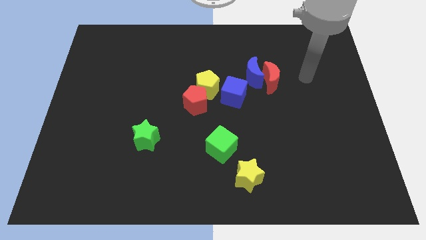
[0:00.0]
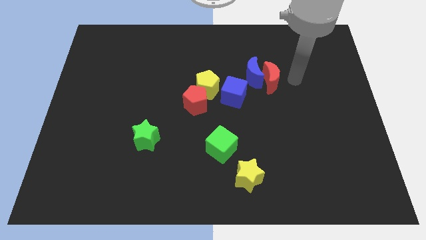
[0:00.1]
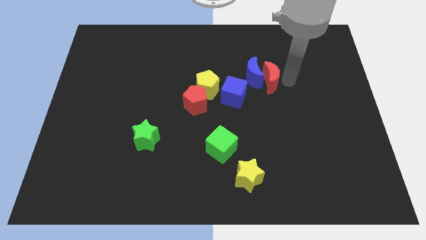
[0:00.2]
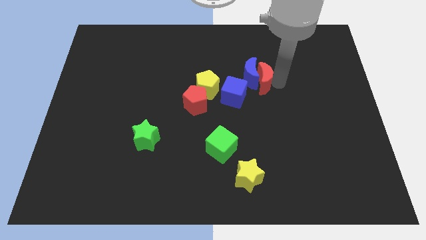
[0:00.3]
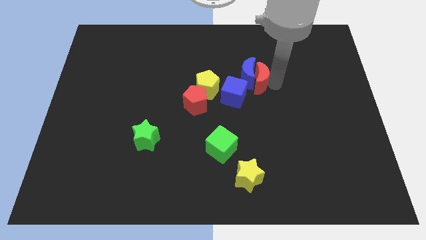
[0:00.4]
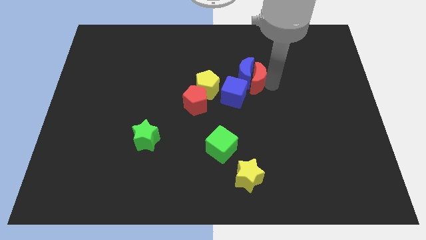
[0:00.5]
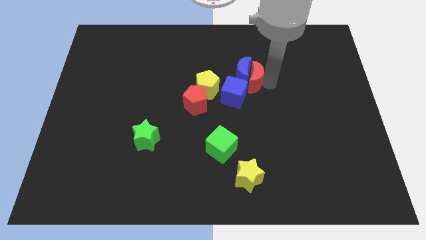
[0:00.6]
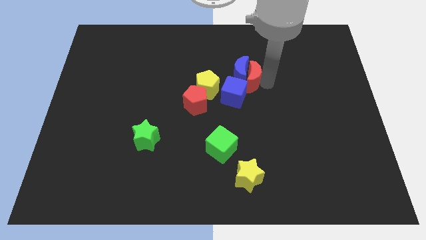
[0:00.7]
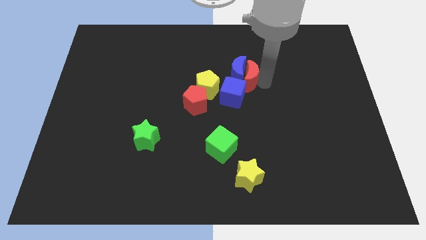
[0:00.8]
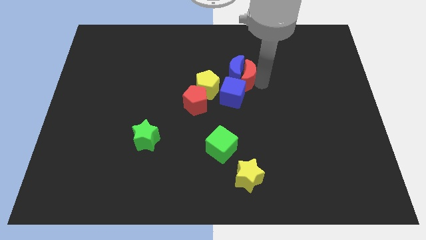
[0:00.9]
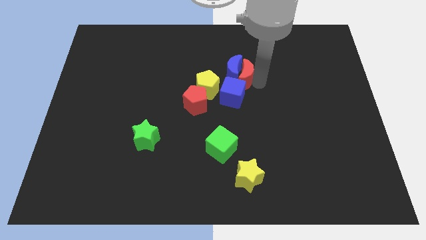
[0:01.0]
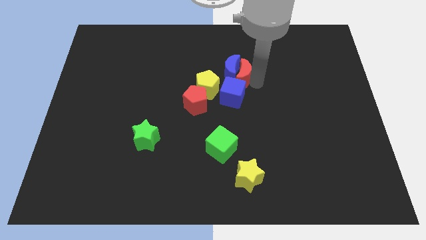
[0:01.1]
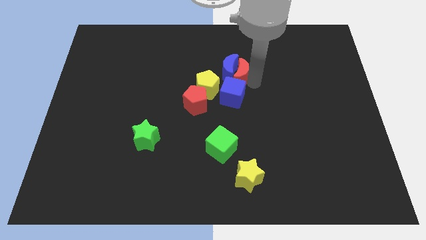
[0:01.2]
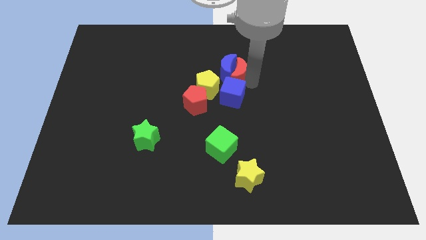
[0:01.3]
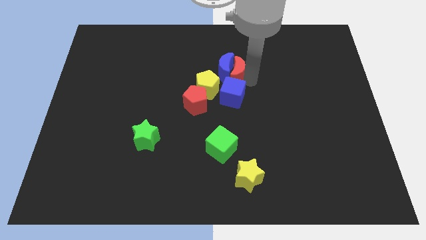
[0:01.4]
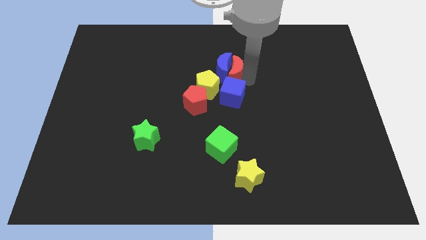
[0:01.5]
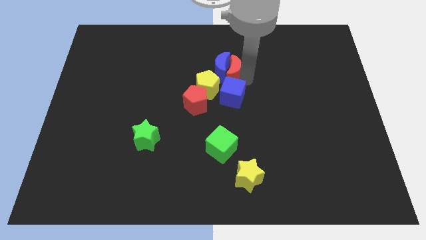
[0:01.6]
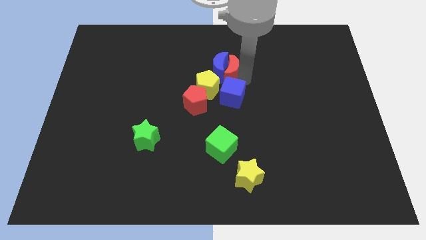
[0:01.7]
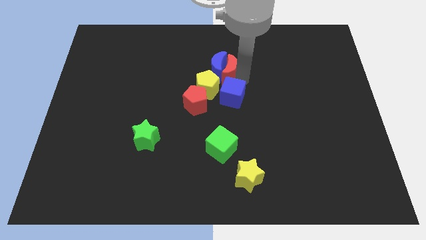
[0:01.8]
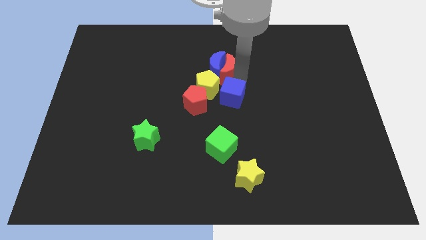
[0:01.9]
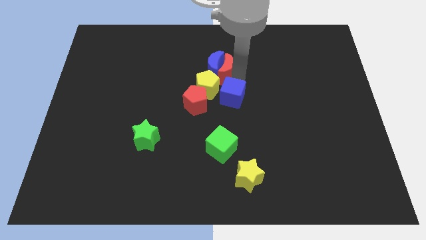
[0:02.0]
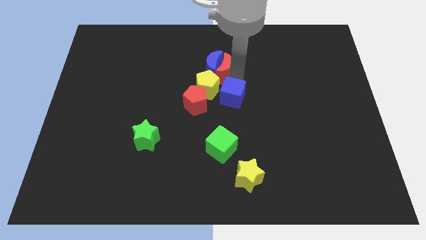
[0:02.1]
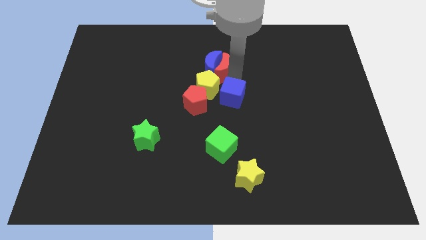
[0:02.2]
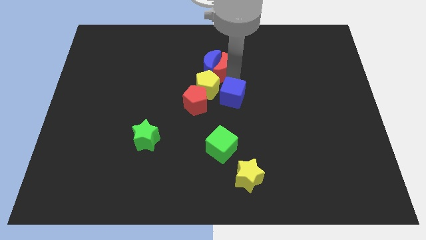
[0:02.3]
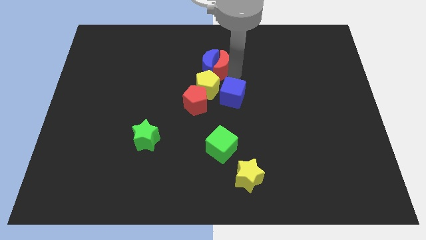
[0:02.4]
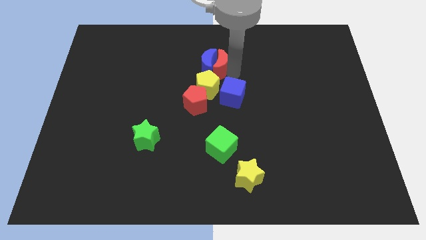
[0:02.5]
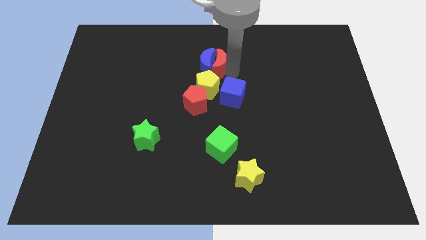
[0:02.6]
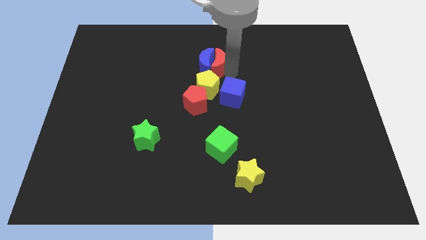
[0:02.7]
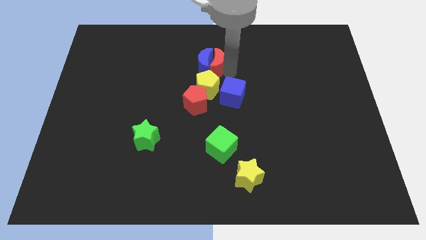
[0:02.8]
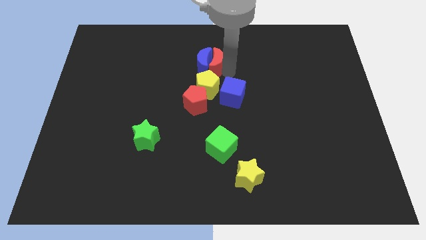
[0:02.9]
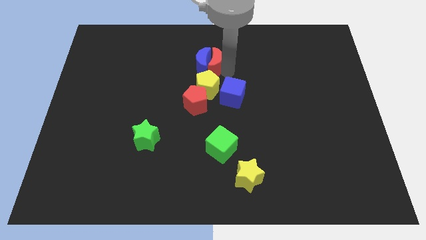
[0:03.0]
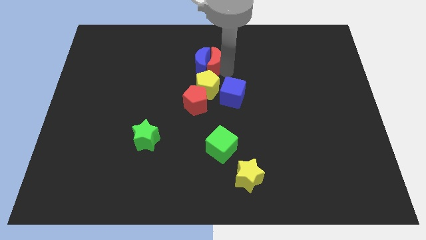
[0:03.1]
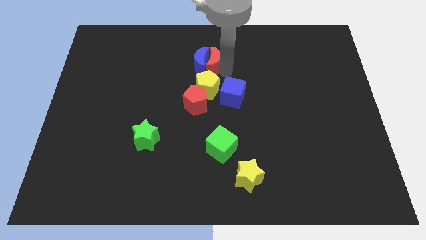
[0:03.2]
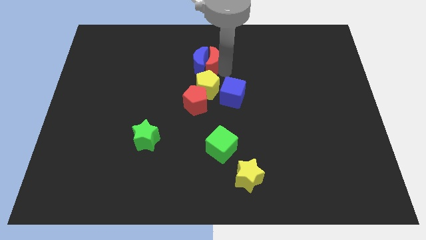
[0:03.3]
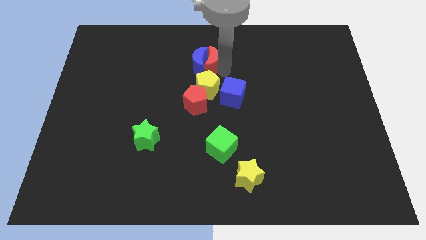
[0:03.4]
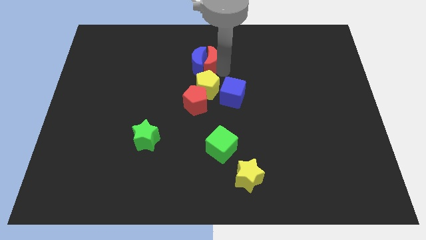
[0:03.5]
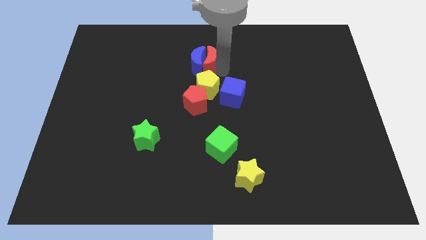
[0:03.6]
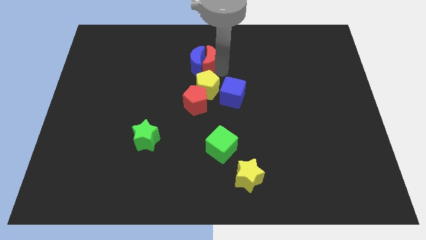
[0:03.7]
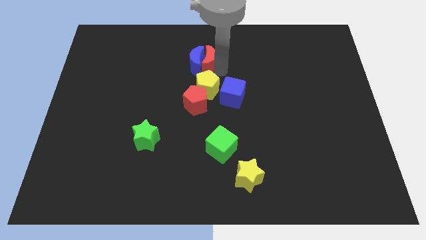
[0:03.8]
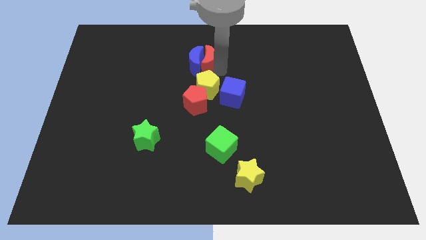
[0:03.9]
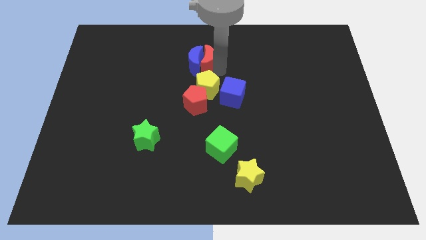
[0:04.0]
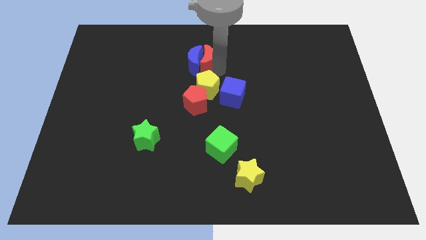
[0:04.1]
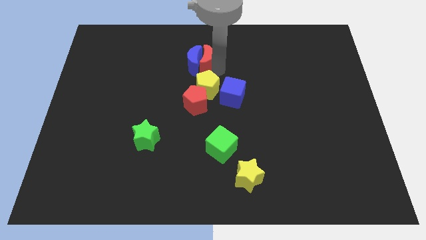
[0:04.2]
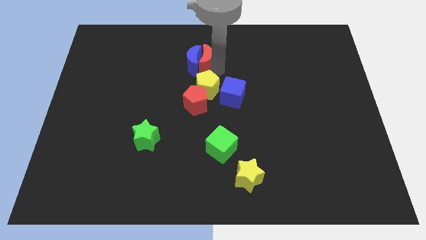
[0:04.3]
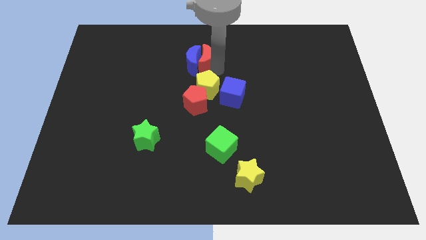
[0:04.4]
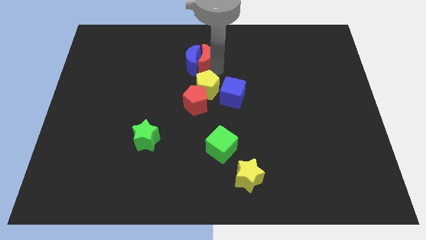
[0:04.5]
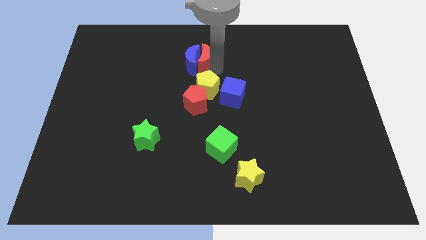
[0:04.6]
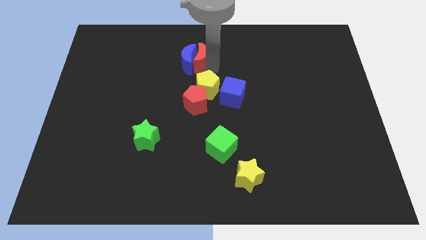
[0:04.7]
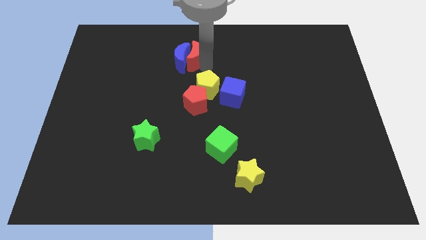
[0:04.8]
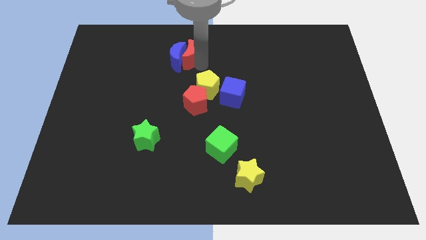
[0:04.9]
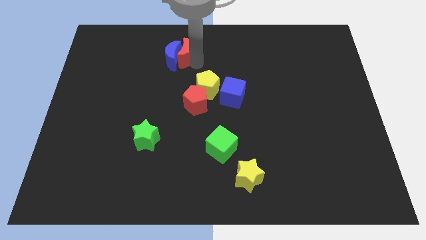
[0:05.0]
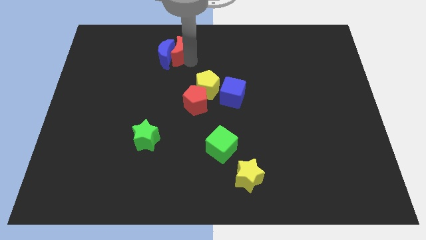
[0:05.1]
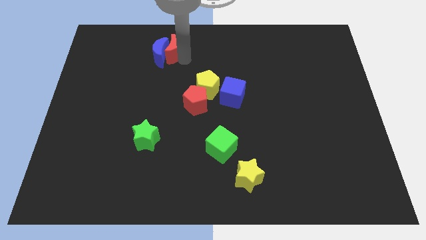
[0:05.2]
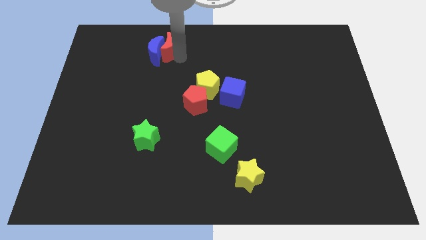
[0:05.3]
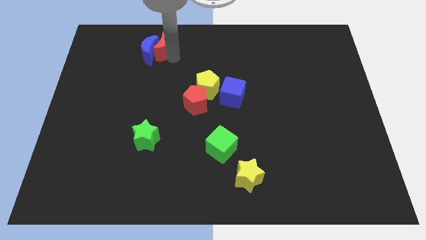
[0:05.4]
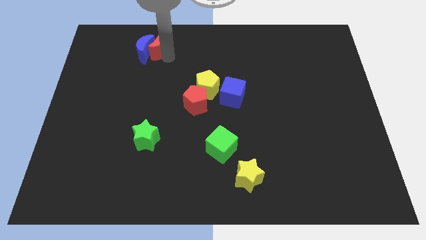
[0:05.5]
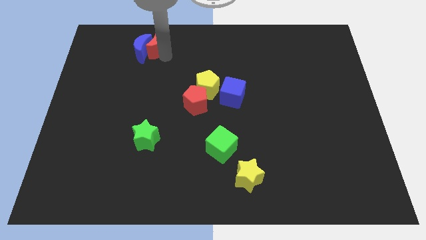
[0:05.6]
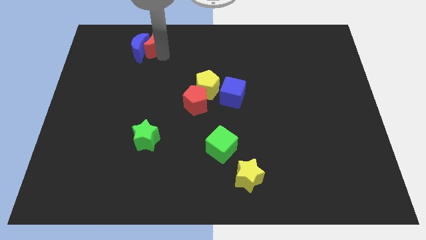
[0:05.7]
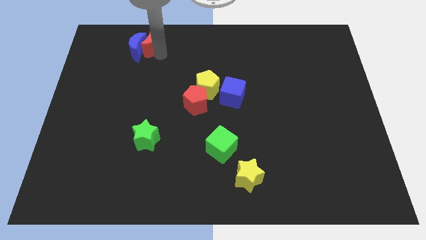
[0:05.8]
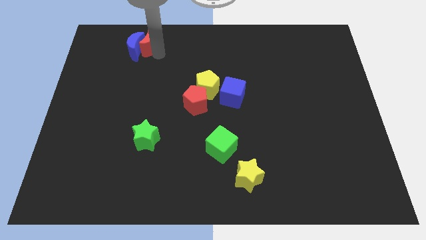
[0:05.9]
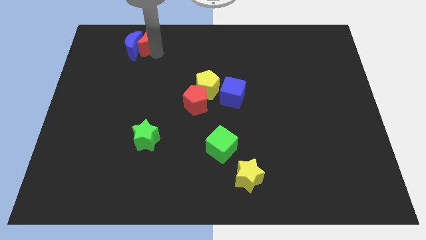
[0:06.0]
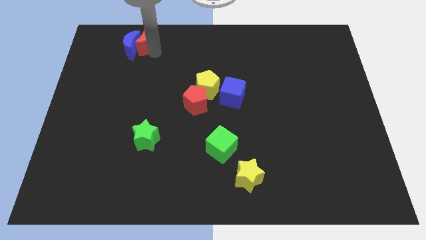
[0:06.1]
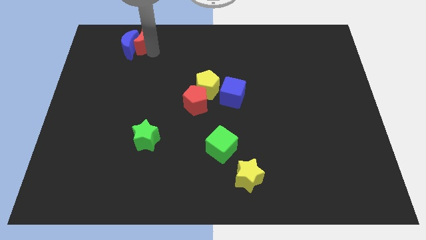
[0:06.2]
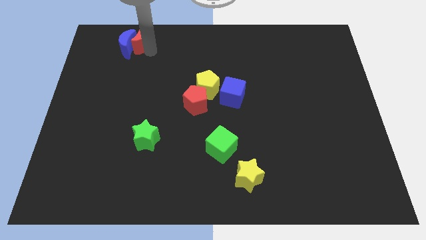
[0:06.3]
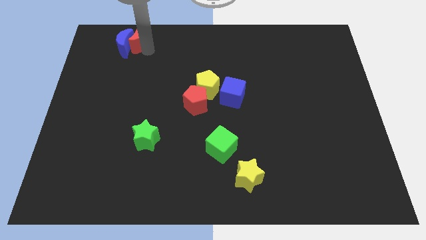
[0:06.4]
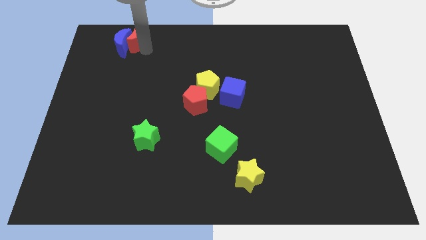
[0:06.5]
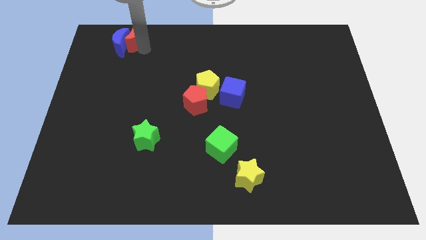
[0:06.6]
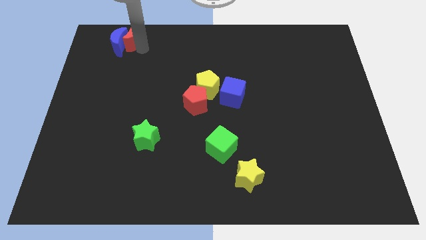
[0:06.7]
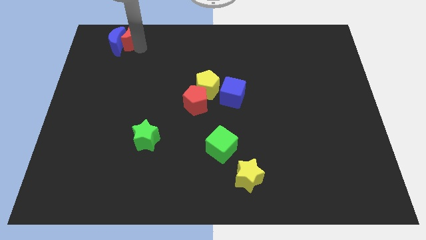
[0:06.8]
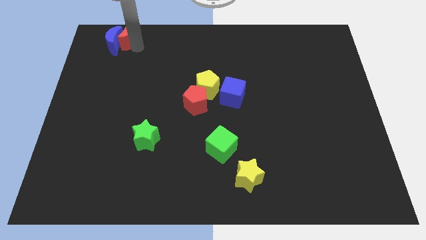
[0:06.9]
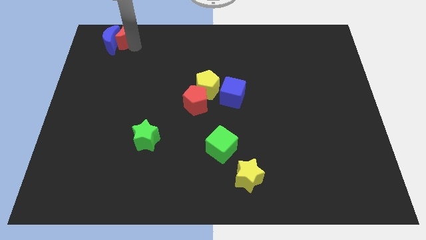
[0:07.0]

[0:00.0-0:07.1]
move the blue moon to the top left
